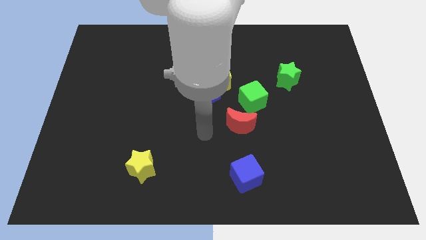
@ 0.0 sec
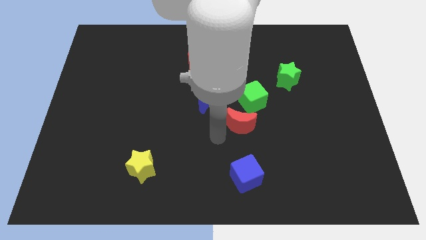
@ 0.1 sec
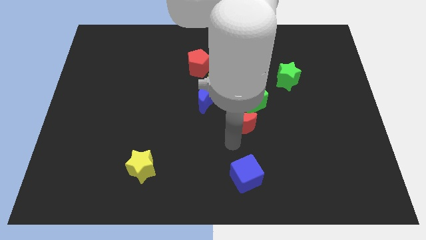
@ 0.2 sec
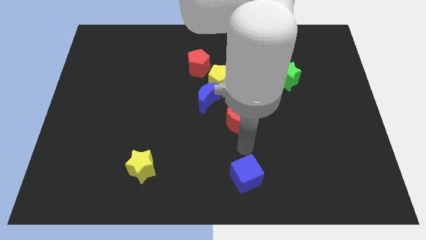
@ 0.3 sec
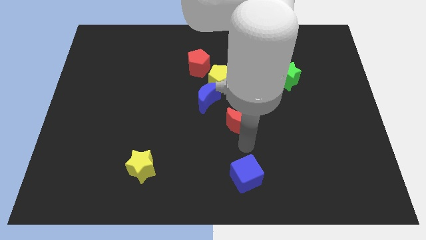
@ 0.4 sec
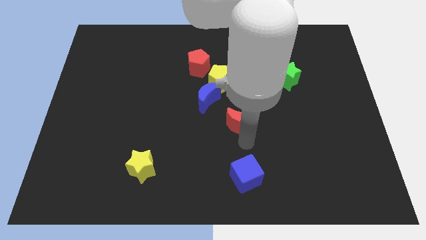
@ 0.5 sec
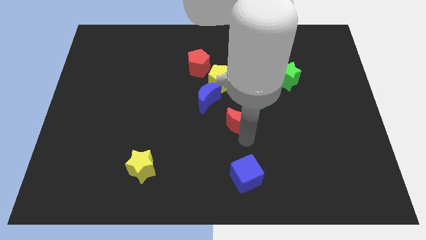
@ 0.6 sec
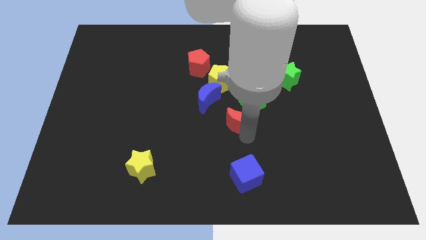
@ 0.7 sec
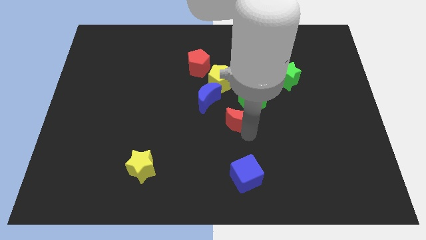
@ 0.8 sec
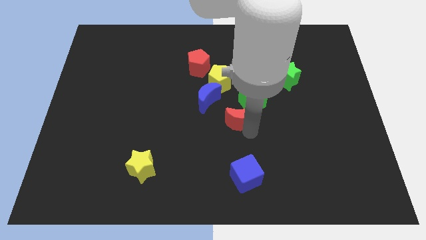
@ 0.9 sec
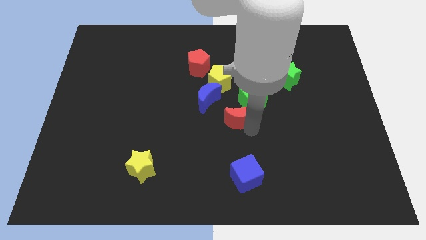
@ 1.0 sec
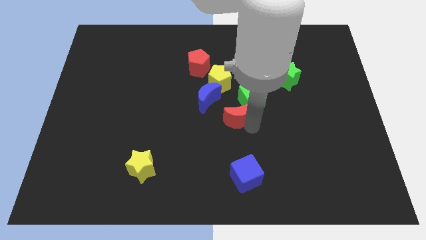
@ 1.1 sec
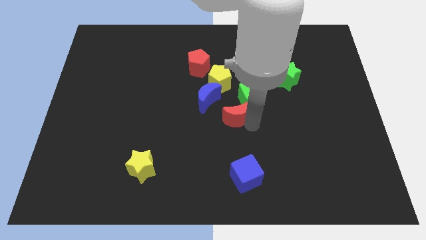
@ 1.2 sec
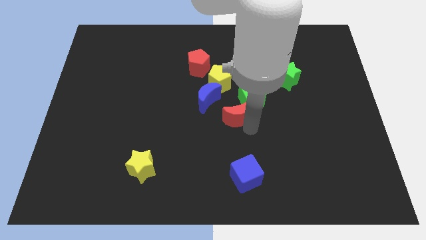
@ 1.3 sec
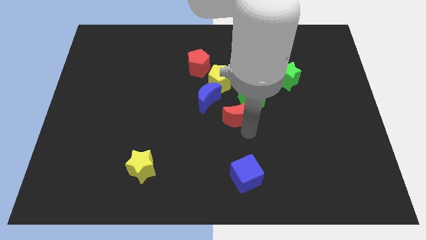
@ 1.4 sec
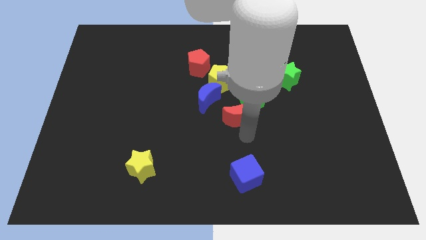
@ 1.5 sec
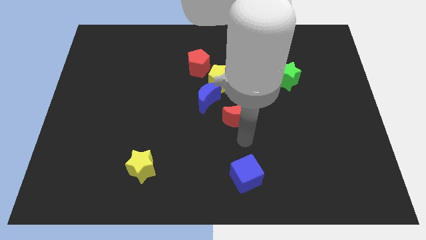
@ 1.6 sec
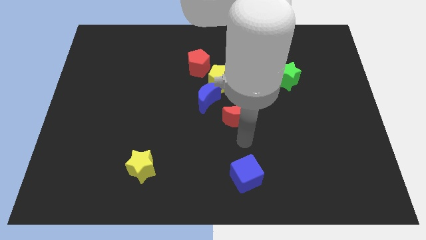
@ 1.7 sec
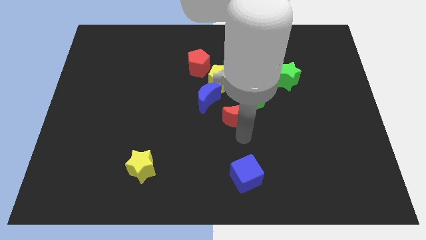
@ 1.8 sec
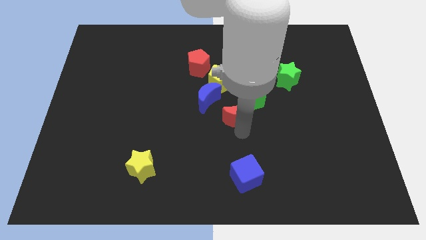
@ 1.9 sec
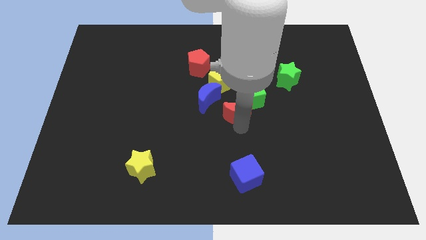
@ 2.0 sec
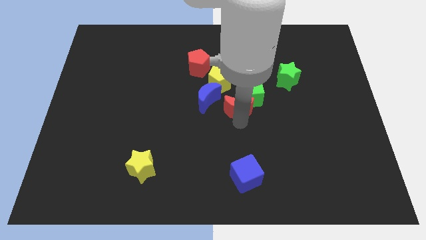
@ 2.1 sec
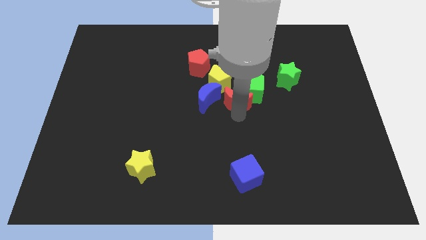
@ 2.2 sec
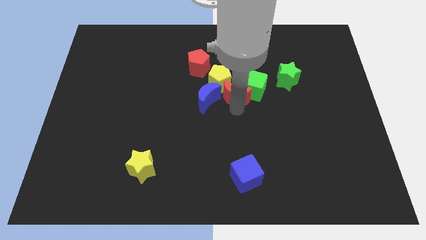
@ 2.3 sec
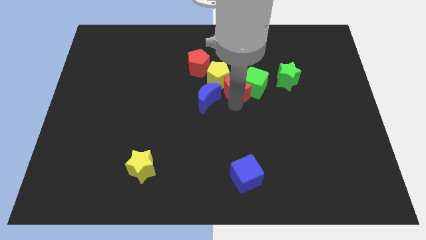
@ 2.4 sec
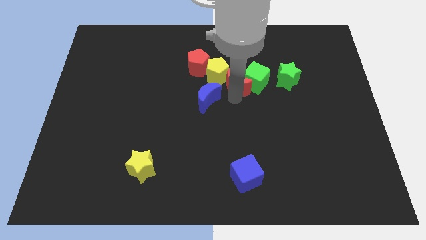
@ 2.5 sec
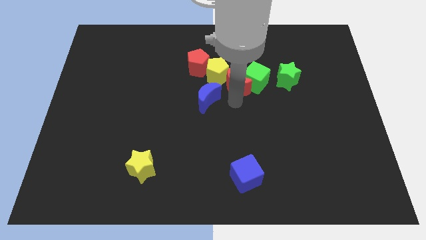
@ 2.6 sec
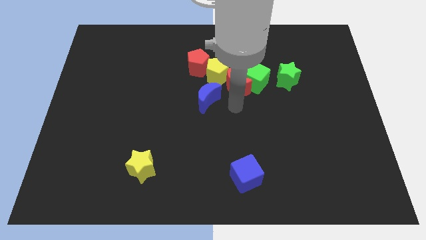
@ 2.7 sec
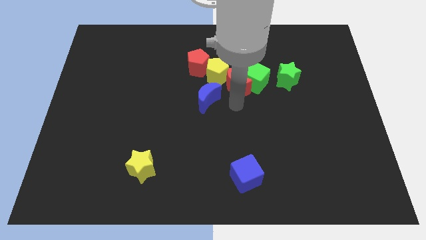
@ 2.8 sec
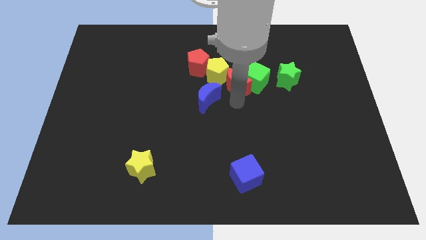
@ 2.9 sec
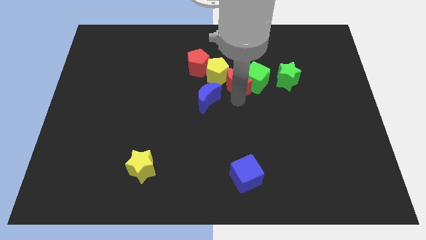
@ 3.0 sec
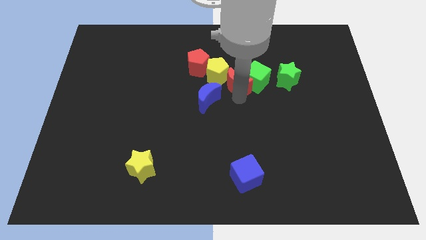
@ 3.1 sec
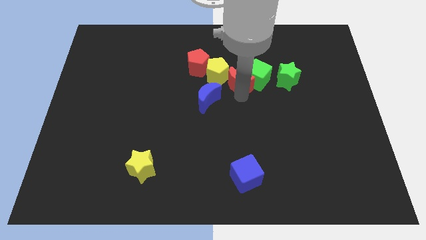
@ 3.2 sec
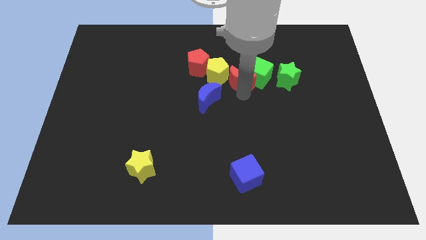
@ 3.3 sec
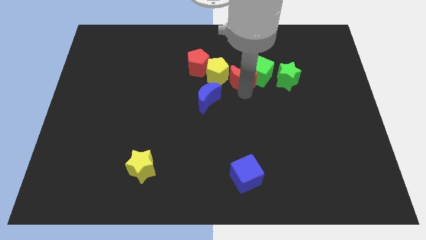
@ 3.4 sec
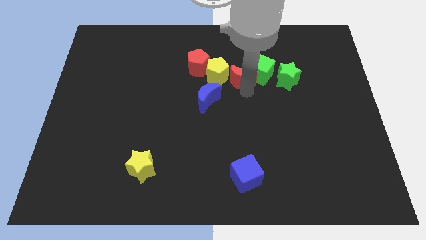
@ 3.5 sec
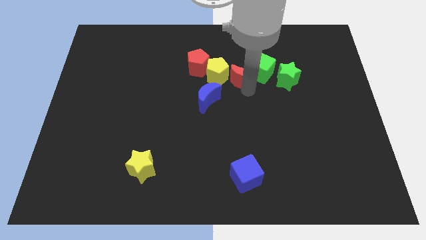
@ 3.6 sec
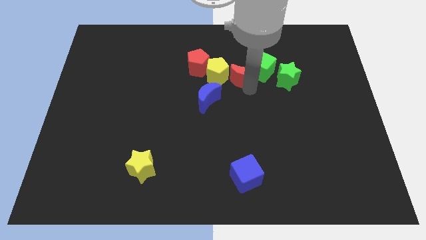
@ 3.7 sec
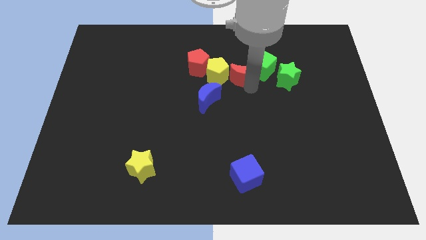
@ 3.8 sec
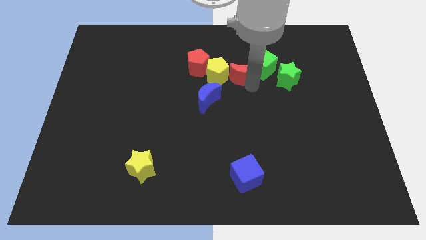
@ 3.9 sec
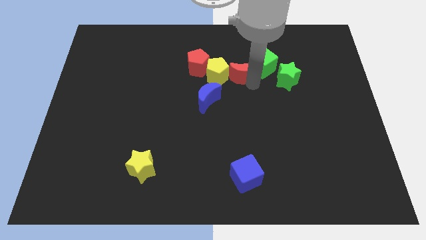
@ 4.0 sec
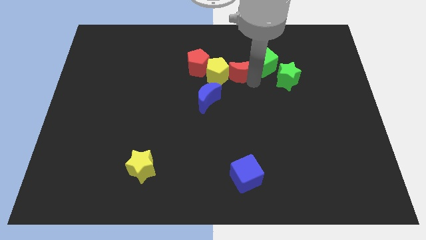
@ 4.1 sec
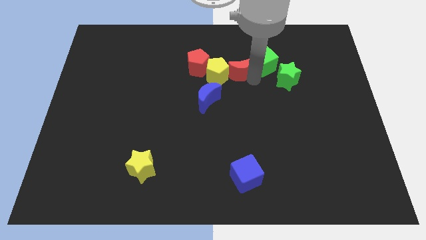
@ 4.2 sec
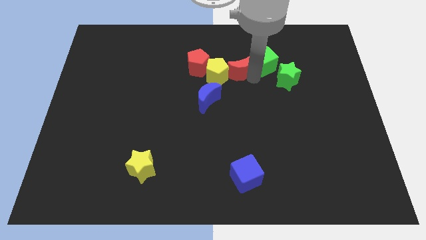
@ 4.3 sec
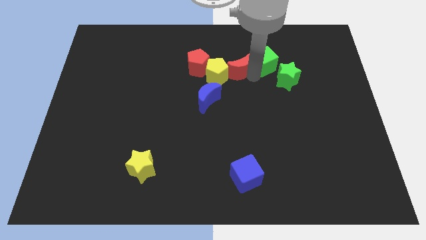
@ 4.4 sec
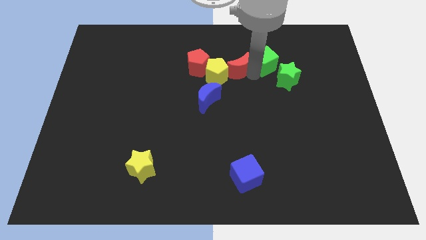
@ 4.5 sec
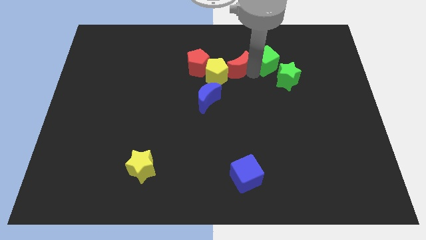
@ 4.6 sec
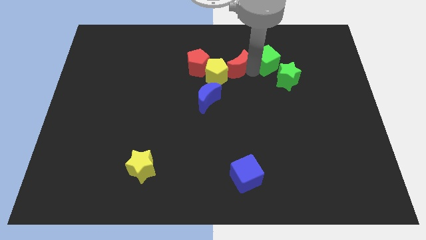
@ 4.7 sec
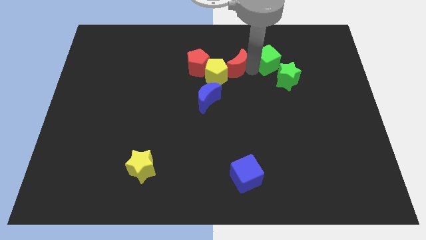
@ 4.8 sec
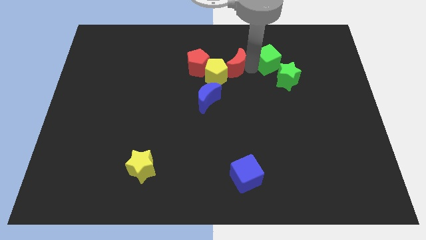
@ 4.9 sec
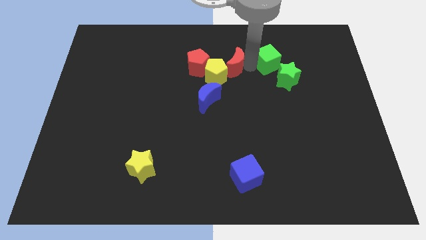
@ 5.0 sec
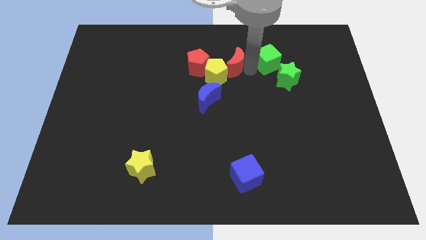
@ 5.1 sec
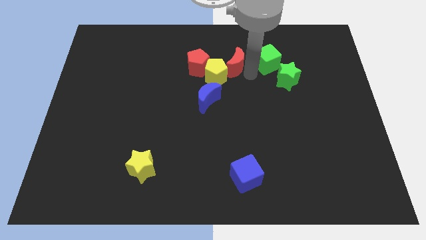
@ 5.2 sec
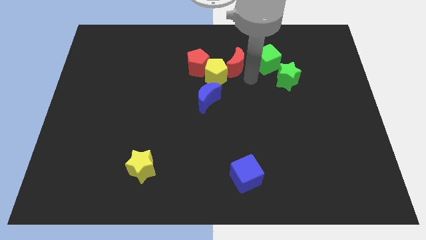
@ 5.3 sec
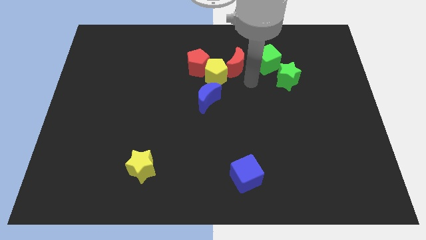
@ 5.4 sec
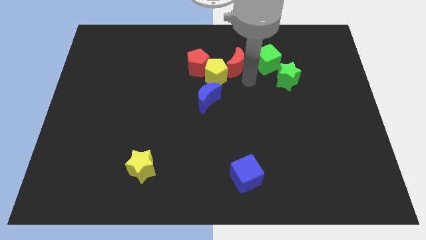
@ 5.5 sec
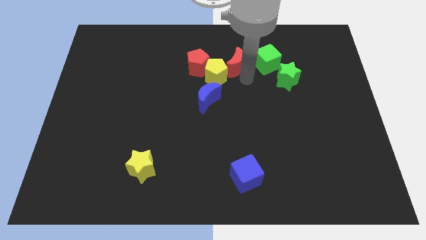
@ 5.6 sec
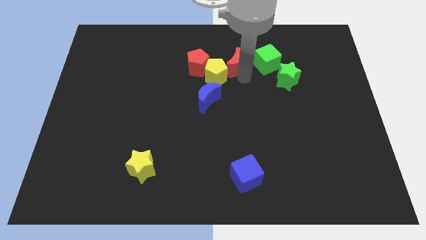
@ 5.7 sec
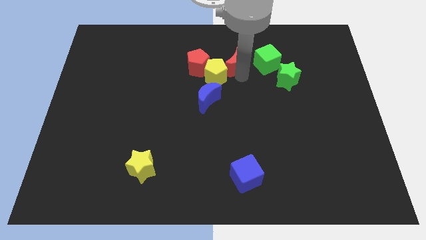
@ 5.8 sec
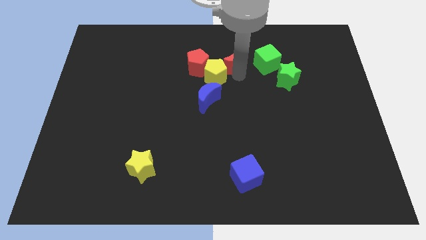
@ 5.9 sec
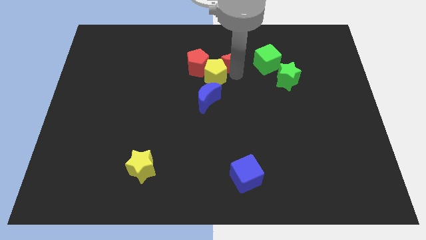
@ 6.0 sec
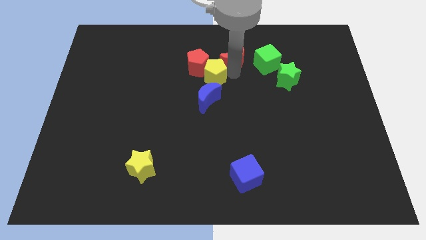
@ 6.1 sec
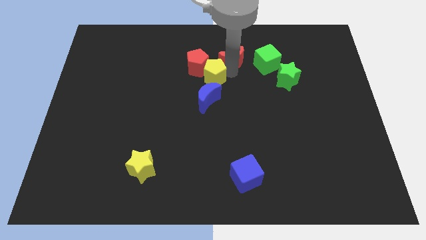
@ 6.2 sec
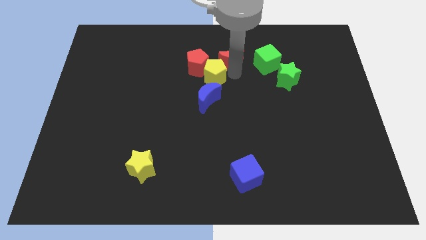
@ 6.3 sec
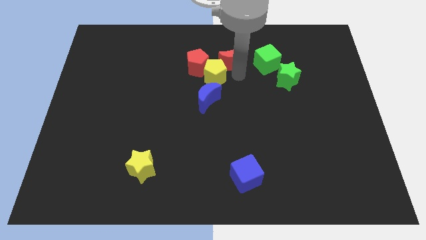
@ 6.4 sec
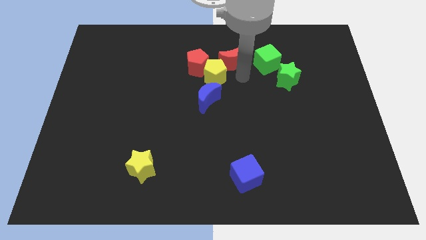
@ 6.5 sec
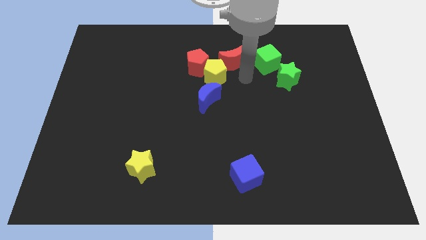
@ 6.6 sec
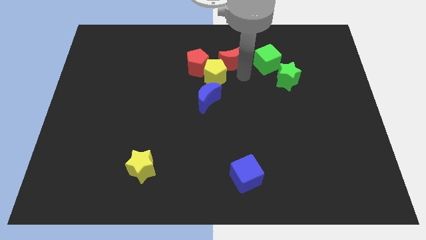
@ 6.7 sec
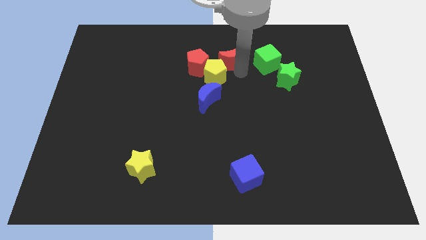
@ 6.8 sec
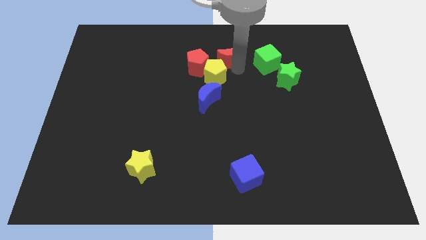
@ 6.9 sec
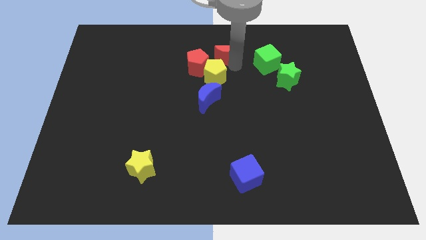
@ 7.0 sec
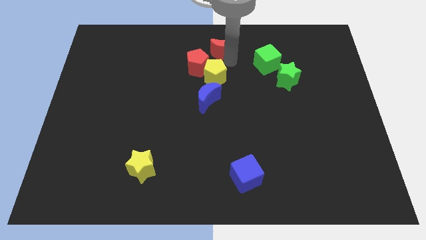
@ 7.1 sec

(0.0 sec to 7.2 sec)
move the red moon to the top
